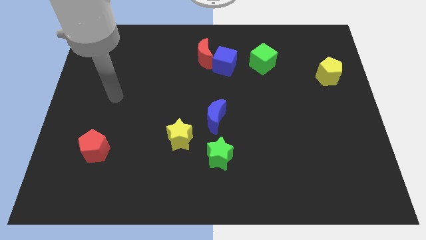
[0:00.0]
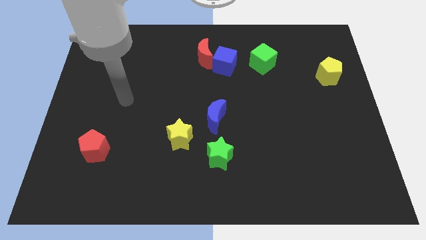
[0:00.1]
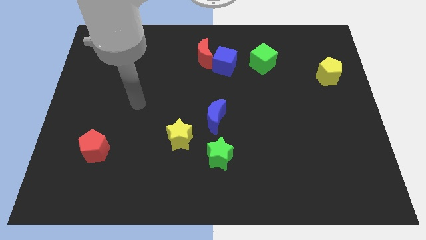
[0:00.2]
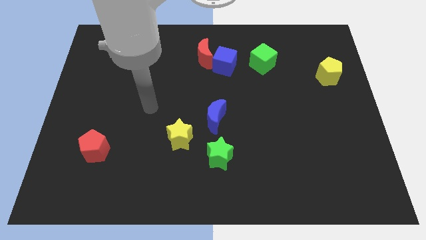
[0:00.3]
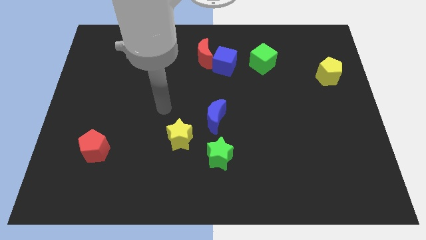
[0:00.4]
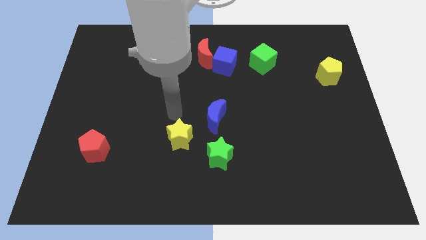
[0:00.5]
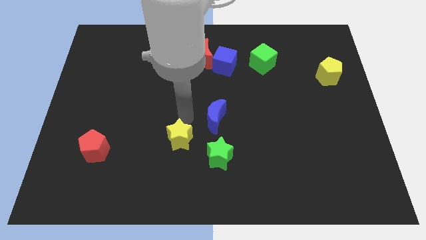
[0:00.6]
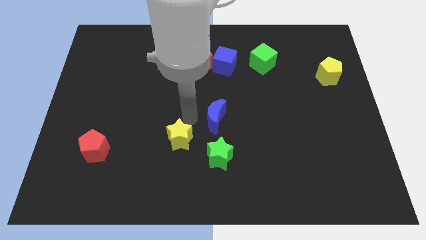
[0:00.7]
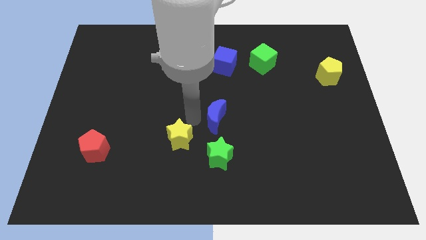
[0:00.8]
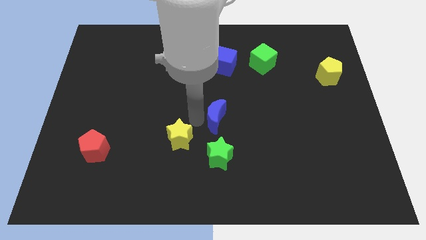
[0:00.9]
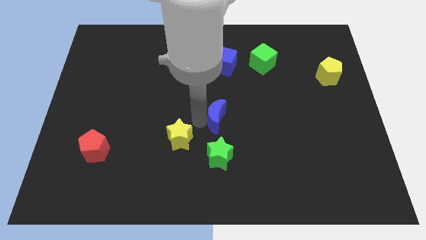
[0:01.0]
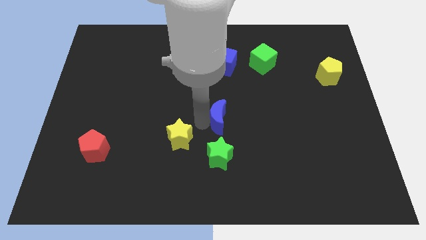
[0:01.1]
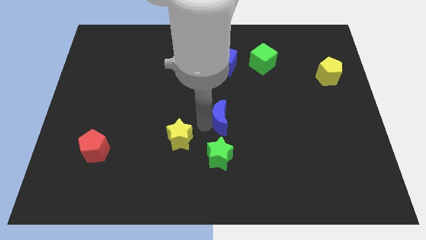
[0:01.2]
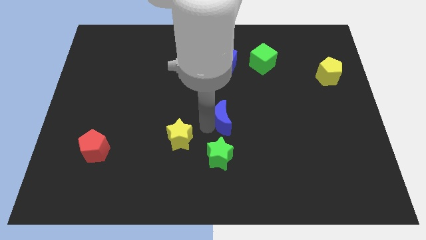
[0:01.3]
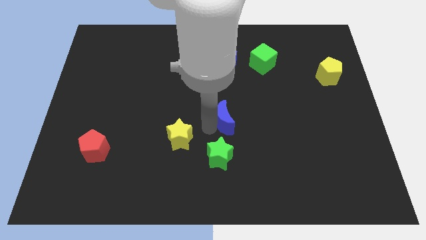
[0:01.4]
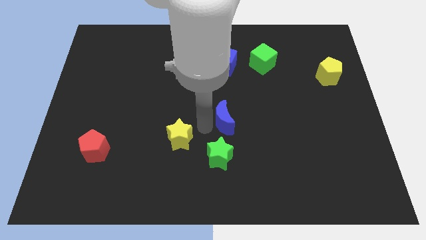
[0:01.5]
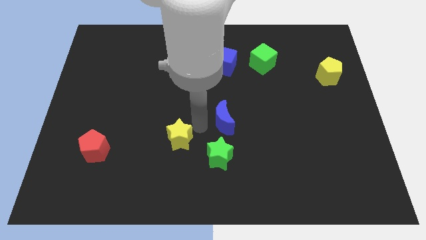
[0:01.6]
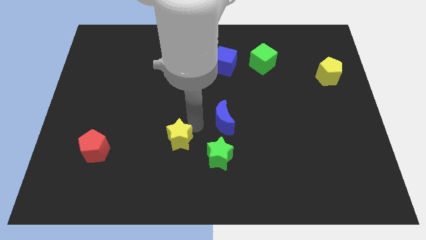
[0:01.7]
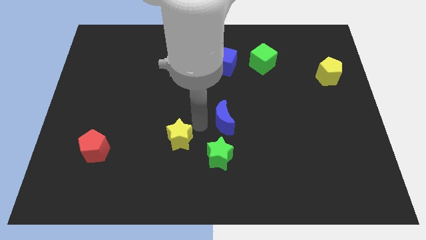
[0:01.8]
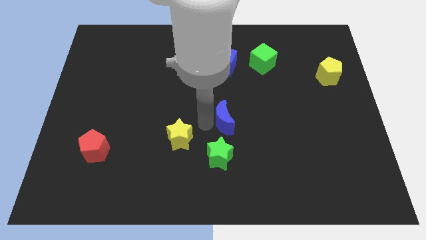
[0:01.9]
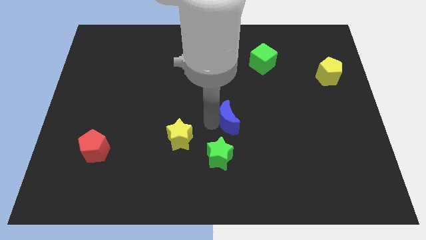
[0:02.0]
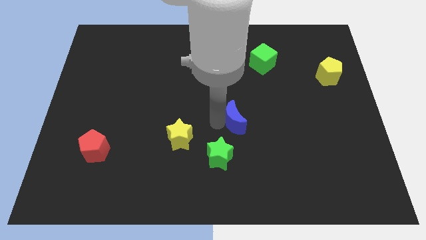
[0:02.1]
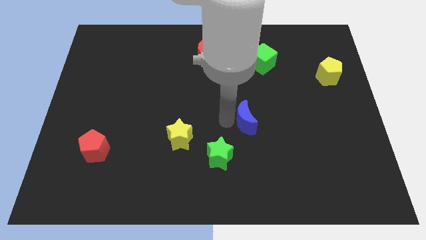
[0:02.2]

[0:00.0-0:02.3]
slightly push the blue moon right

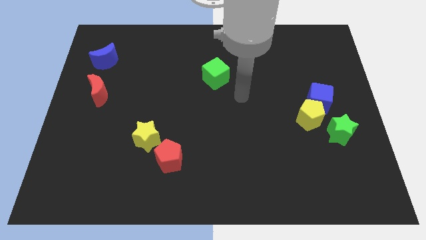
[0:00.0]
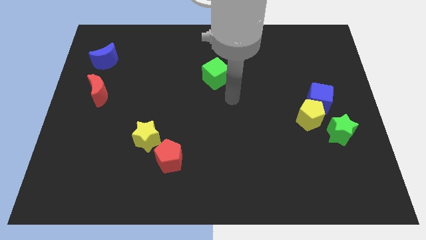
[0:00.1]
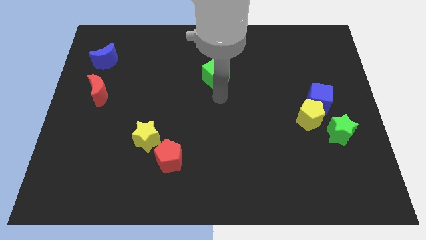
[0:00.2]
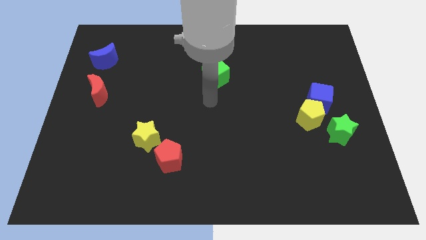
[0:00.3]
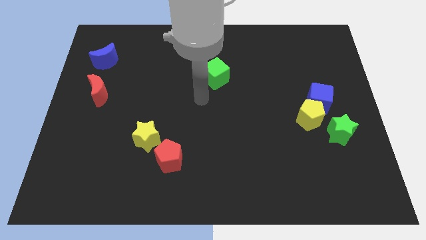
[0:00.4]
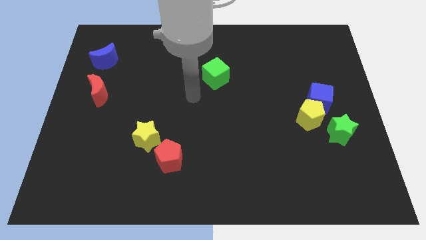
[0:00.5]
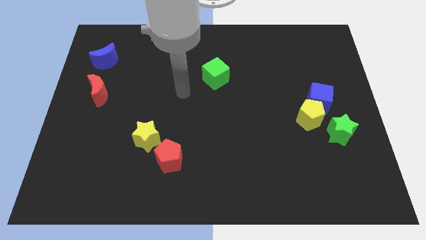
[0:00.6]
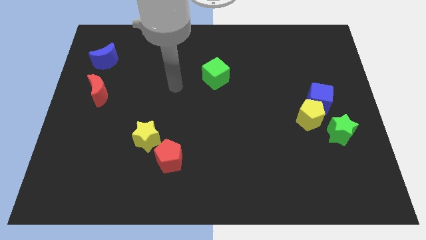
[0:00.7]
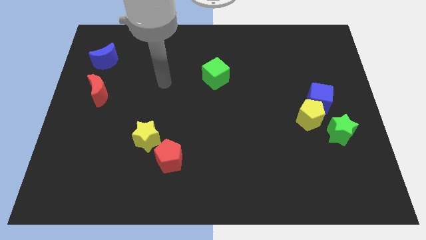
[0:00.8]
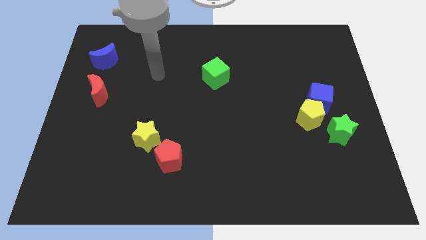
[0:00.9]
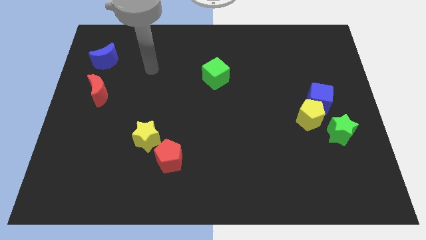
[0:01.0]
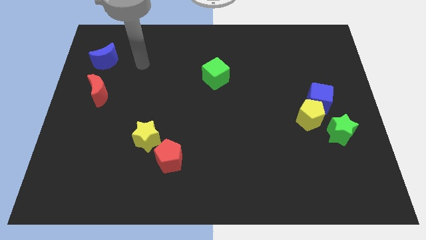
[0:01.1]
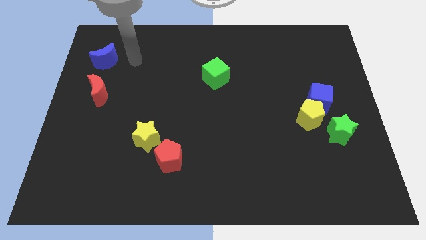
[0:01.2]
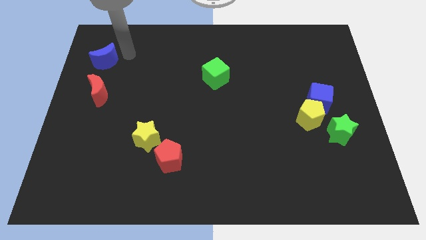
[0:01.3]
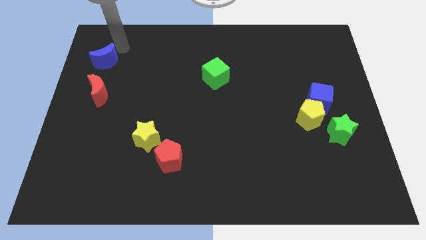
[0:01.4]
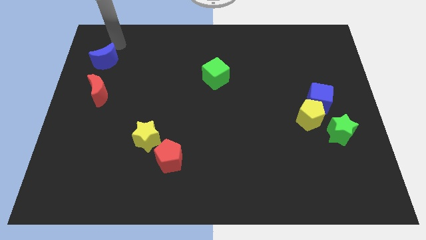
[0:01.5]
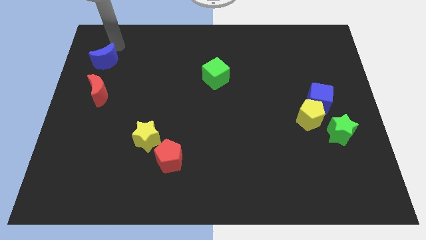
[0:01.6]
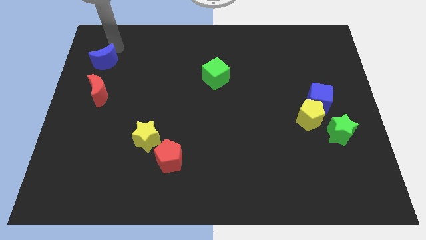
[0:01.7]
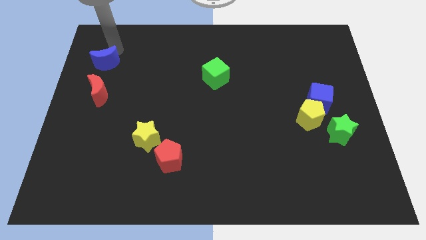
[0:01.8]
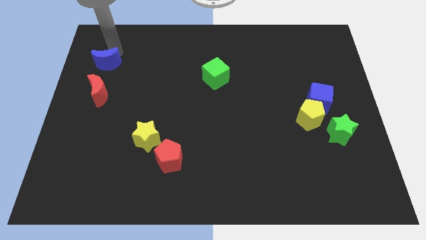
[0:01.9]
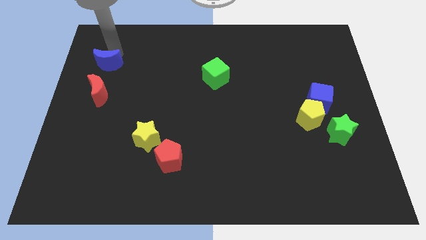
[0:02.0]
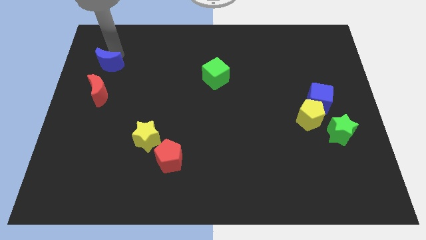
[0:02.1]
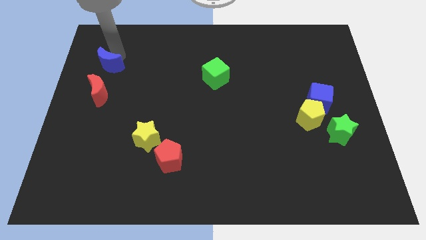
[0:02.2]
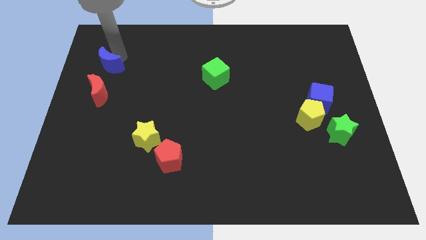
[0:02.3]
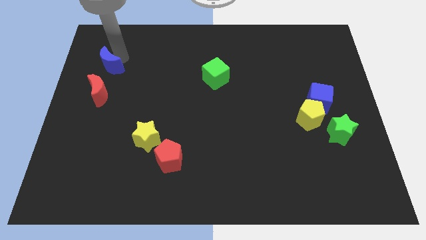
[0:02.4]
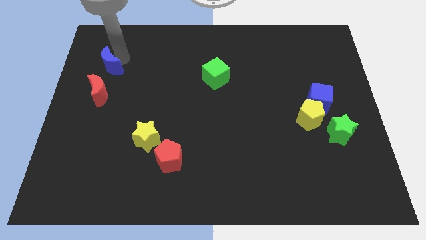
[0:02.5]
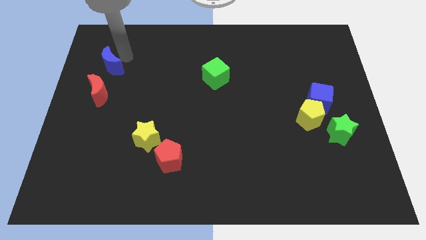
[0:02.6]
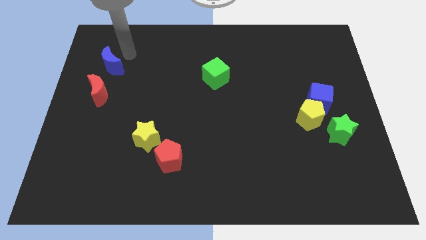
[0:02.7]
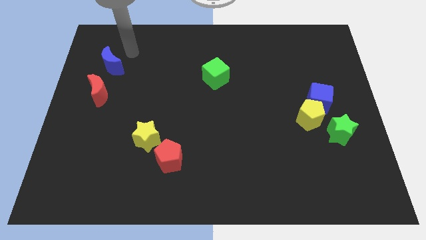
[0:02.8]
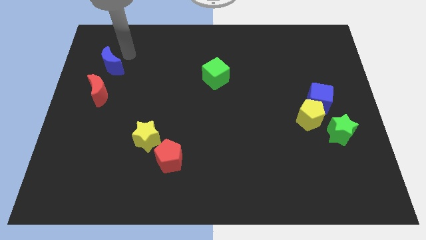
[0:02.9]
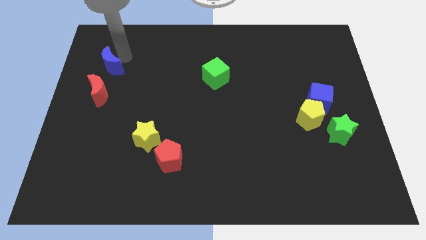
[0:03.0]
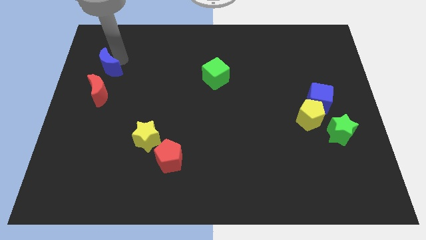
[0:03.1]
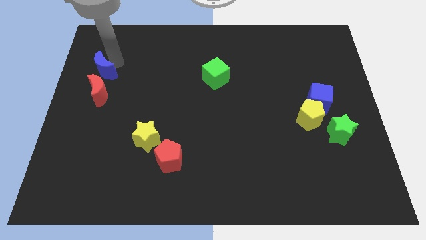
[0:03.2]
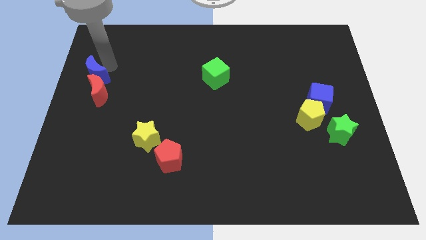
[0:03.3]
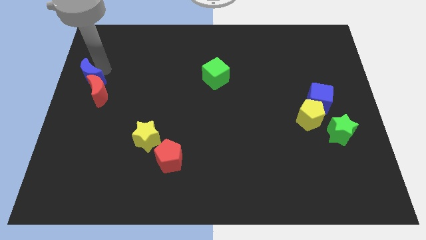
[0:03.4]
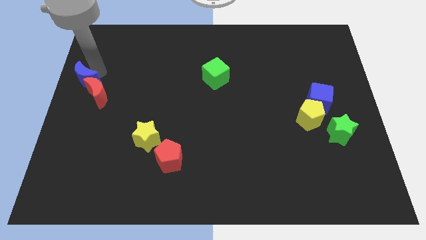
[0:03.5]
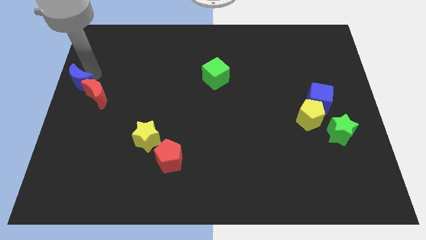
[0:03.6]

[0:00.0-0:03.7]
push the blue moon slightly down

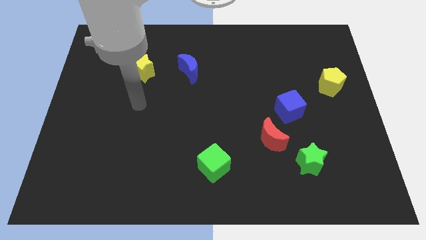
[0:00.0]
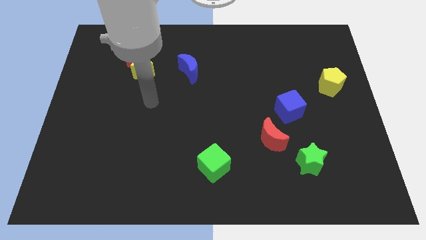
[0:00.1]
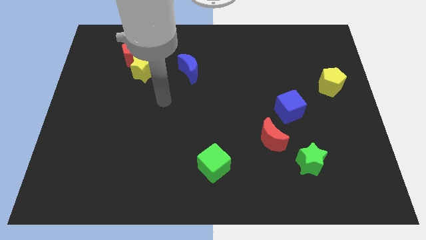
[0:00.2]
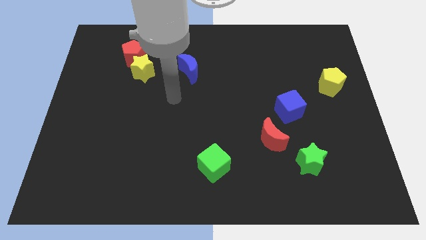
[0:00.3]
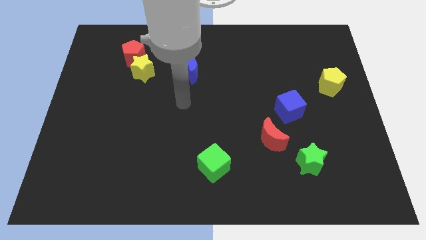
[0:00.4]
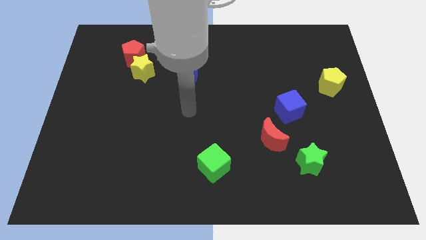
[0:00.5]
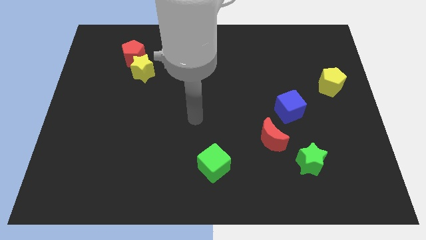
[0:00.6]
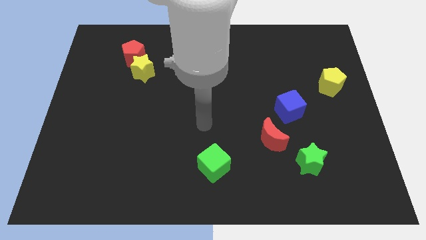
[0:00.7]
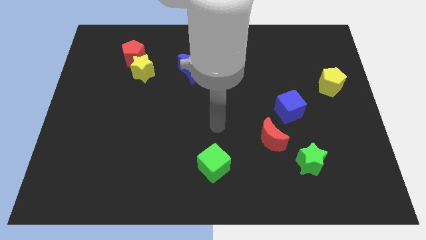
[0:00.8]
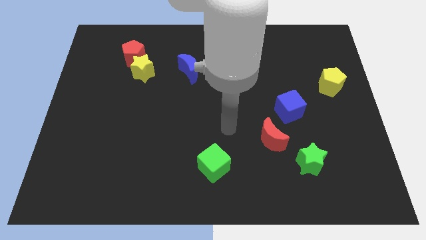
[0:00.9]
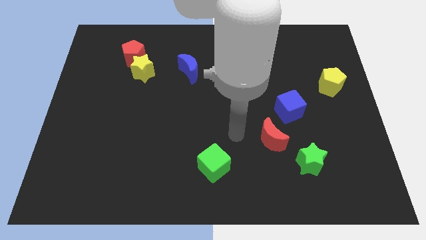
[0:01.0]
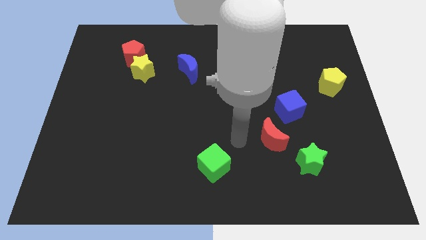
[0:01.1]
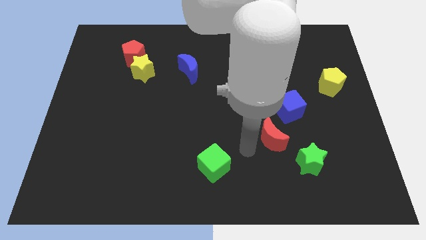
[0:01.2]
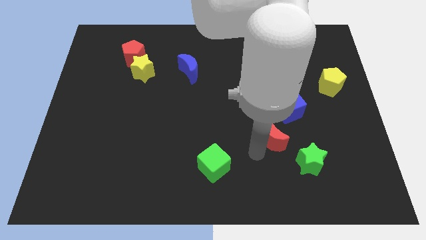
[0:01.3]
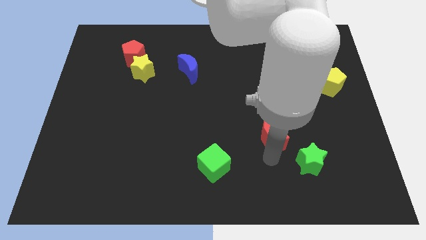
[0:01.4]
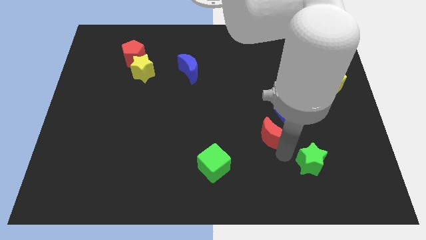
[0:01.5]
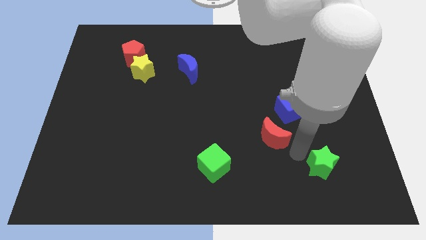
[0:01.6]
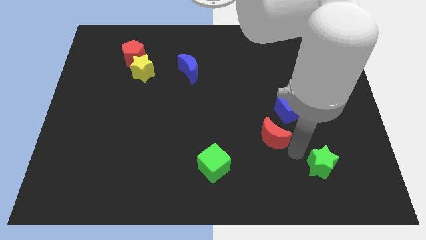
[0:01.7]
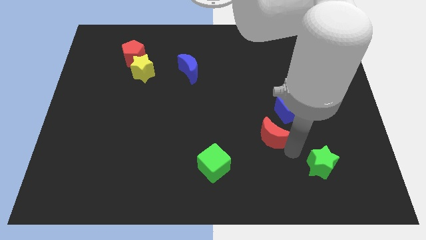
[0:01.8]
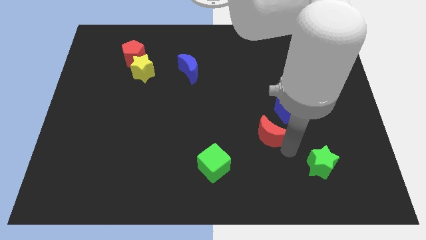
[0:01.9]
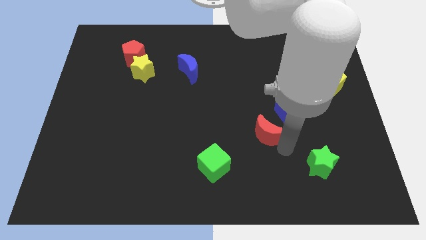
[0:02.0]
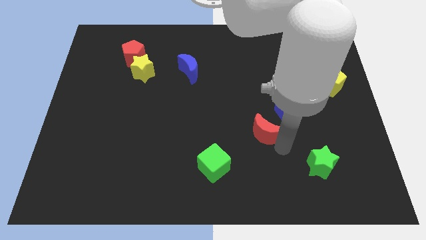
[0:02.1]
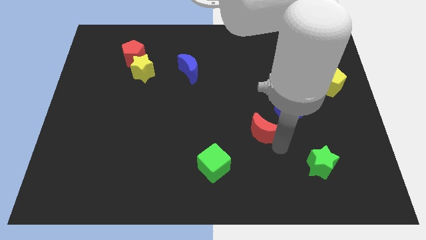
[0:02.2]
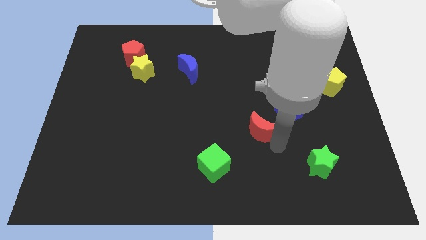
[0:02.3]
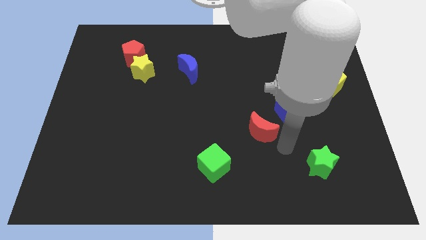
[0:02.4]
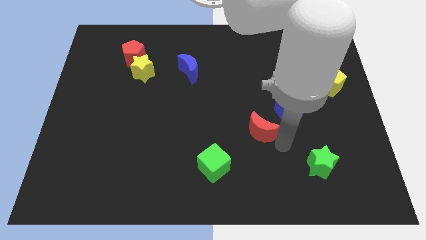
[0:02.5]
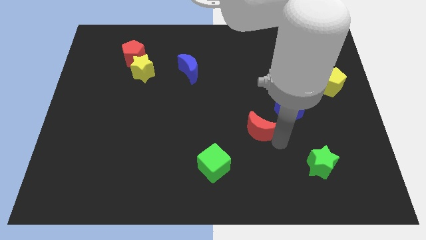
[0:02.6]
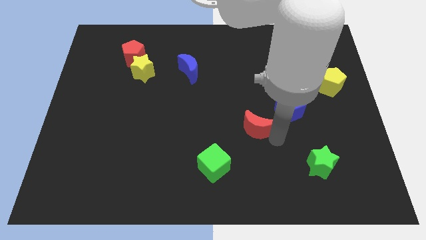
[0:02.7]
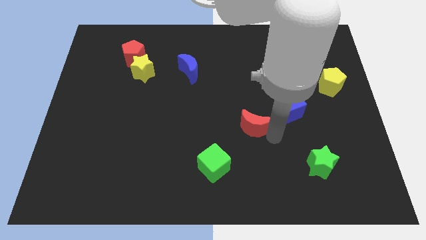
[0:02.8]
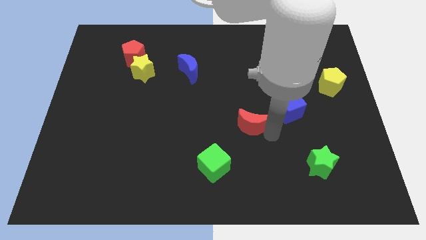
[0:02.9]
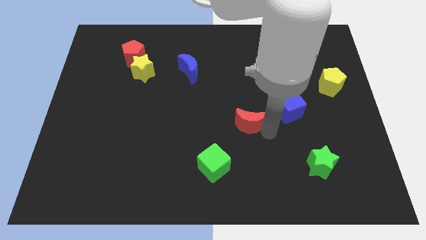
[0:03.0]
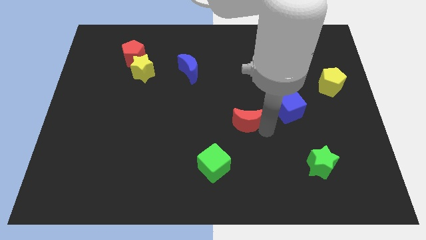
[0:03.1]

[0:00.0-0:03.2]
move the red moon upwards and left a little
